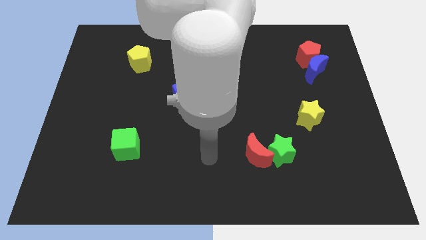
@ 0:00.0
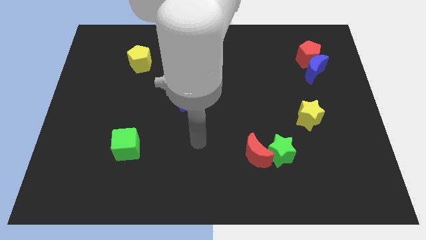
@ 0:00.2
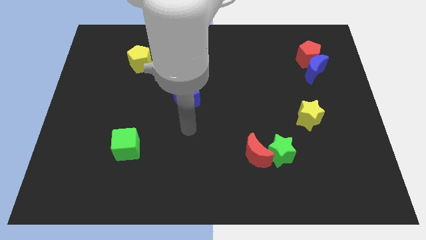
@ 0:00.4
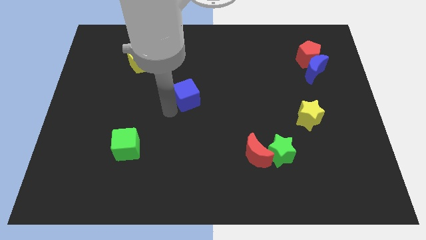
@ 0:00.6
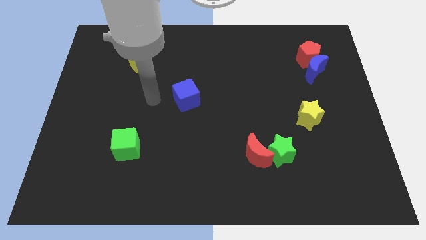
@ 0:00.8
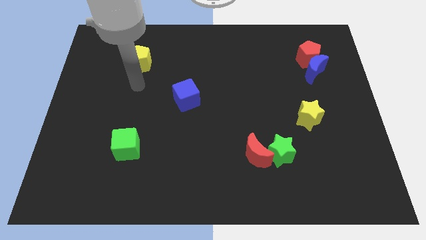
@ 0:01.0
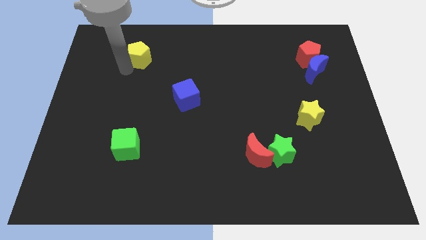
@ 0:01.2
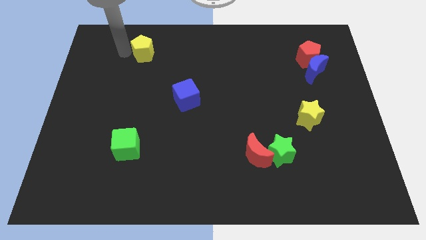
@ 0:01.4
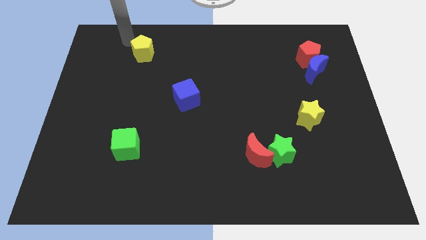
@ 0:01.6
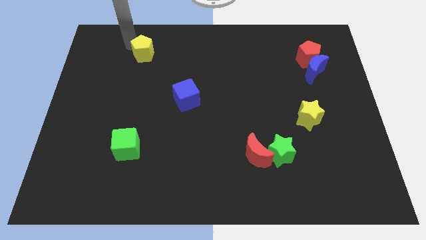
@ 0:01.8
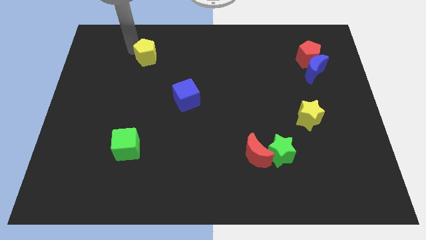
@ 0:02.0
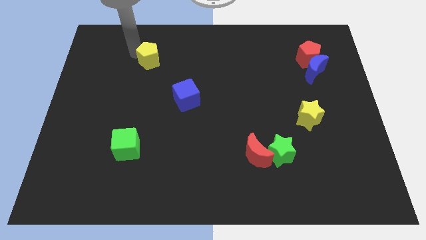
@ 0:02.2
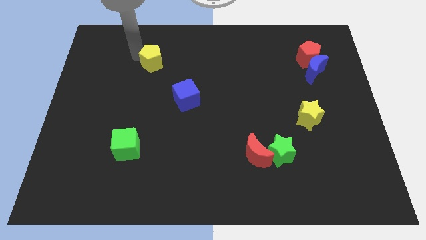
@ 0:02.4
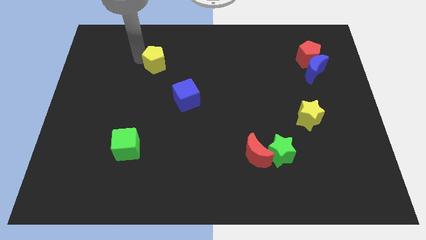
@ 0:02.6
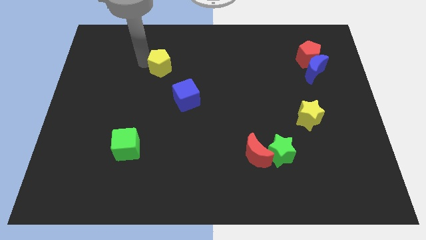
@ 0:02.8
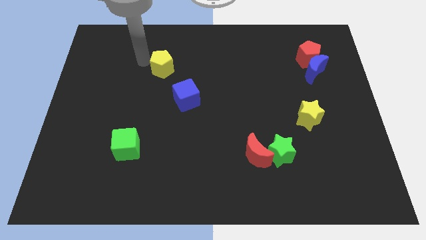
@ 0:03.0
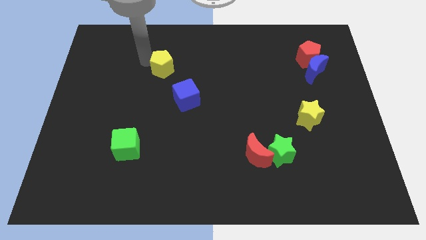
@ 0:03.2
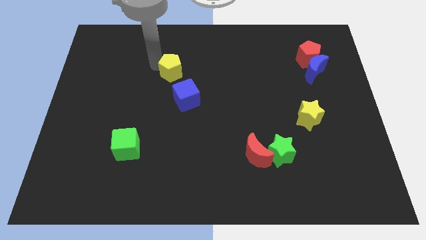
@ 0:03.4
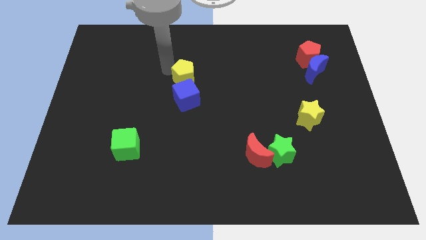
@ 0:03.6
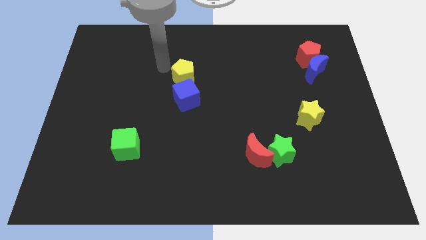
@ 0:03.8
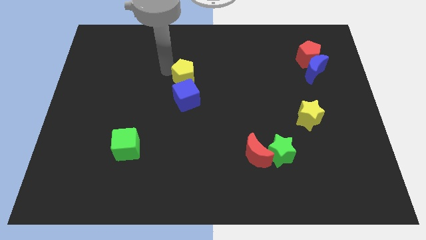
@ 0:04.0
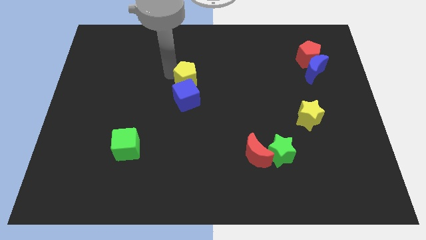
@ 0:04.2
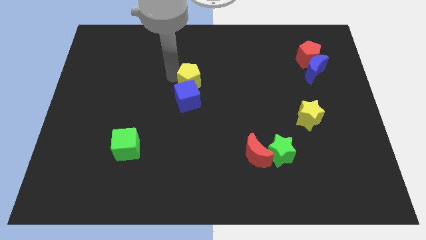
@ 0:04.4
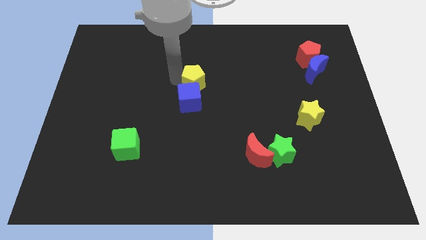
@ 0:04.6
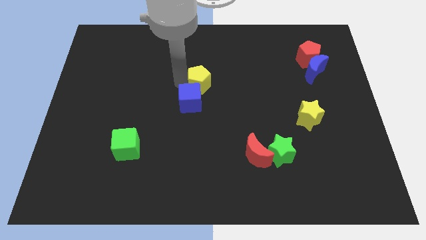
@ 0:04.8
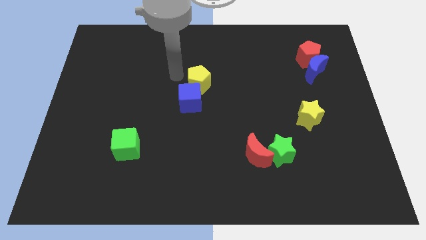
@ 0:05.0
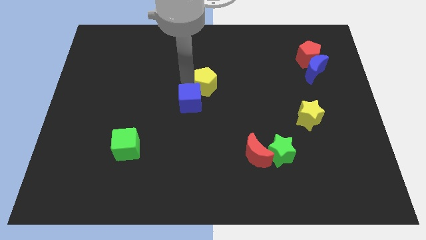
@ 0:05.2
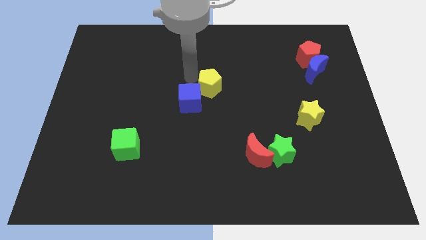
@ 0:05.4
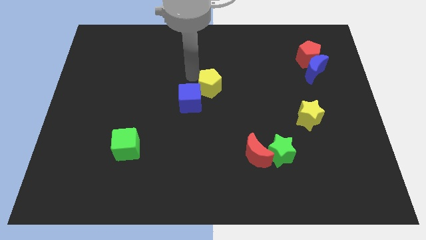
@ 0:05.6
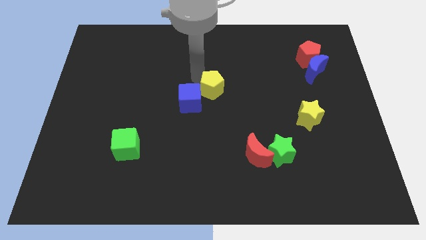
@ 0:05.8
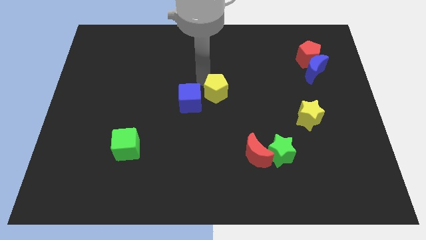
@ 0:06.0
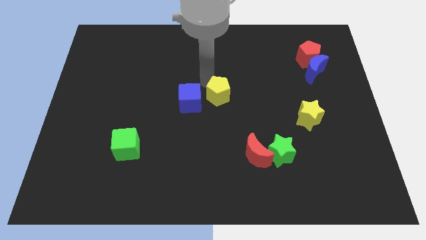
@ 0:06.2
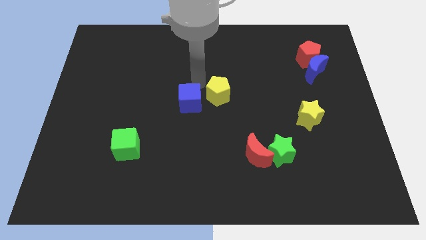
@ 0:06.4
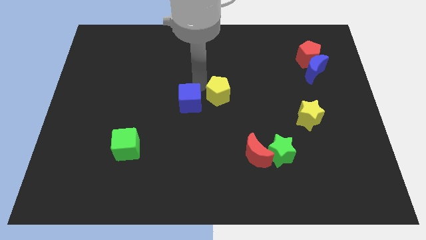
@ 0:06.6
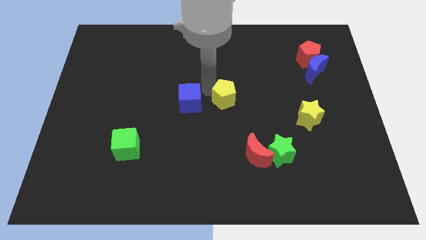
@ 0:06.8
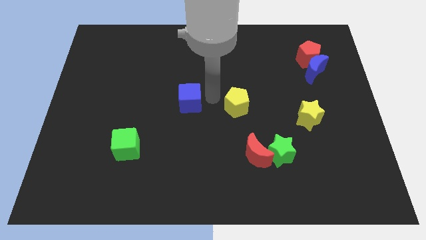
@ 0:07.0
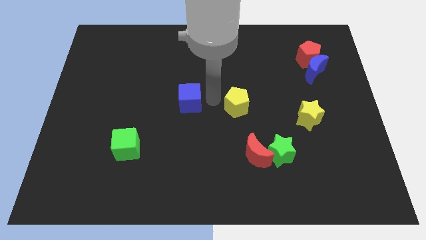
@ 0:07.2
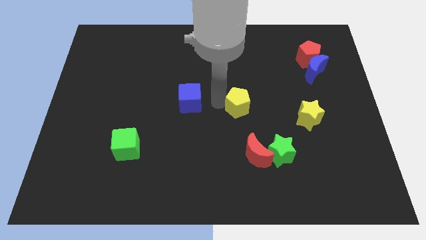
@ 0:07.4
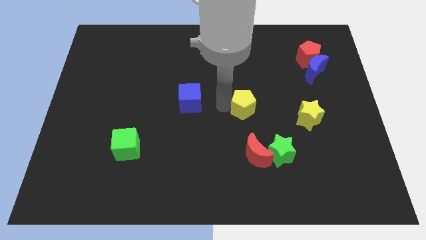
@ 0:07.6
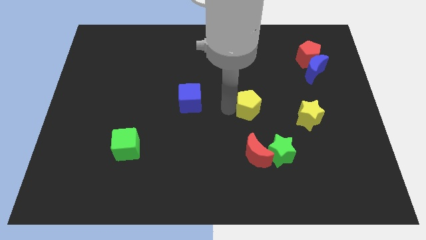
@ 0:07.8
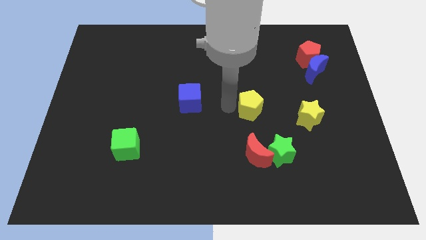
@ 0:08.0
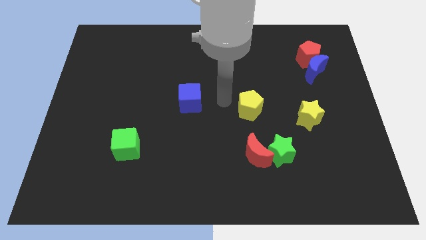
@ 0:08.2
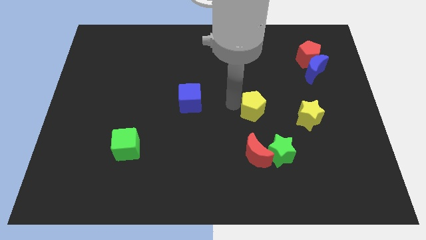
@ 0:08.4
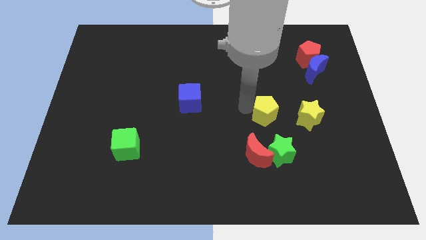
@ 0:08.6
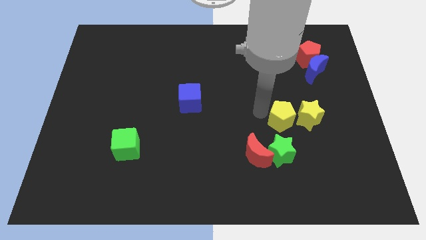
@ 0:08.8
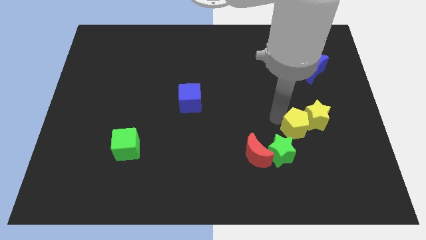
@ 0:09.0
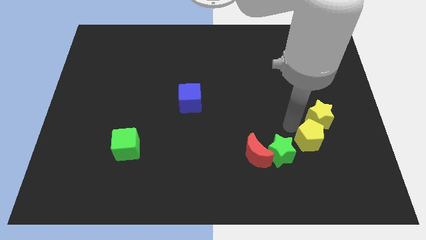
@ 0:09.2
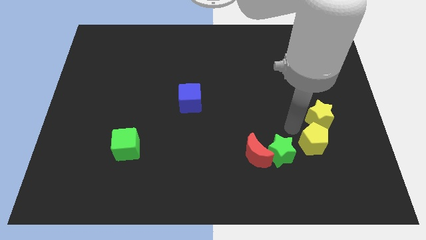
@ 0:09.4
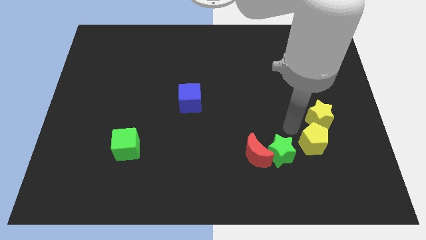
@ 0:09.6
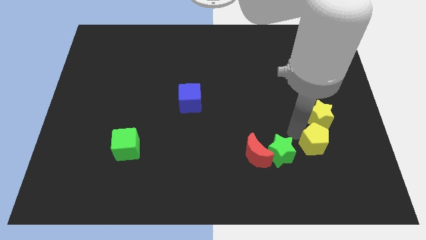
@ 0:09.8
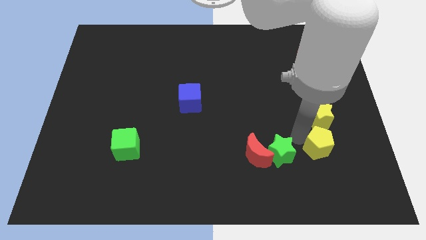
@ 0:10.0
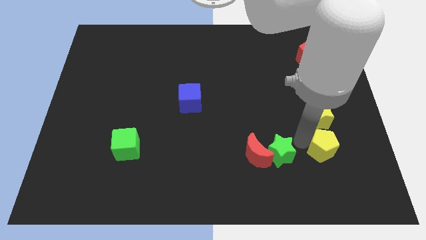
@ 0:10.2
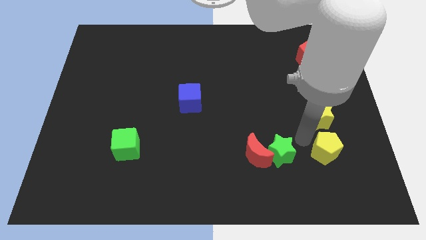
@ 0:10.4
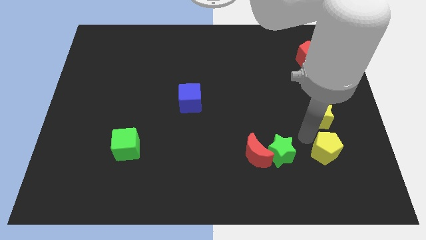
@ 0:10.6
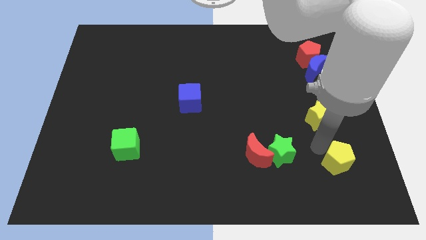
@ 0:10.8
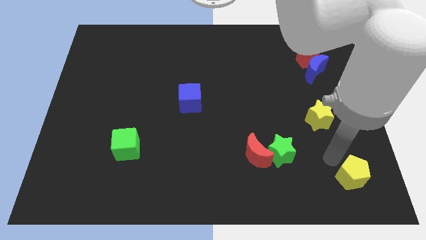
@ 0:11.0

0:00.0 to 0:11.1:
put the yellow pentagon to the bottom right

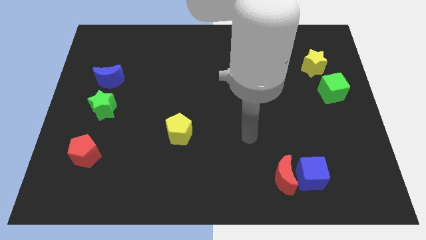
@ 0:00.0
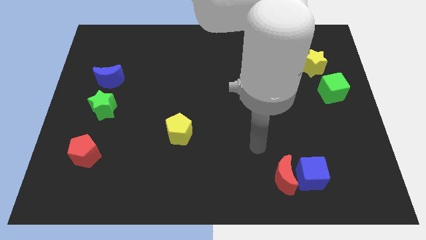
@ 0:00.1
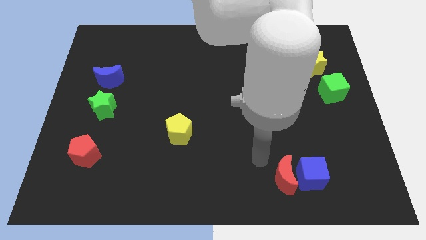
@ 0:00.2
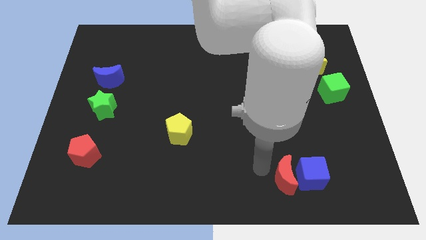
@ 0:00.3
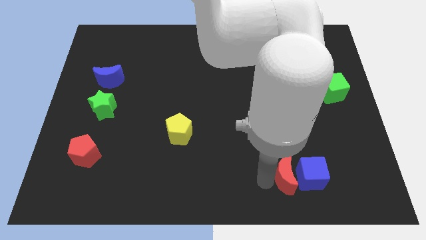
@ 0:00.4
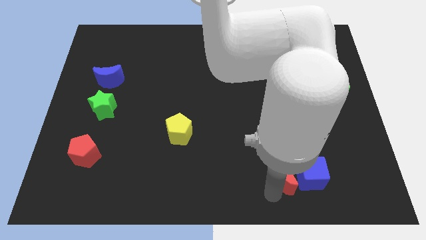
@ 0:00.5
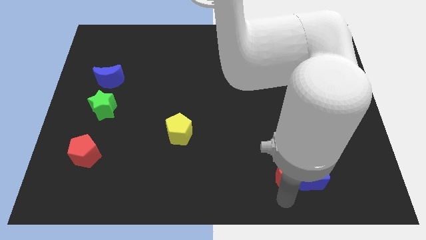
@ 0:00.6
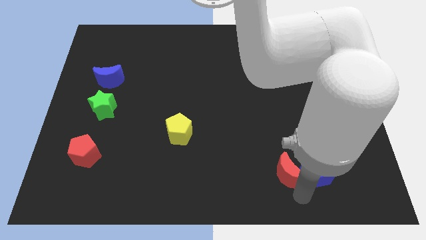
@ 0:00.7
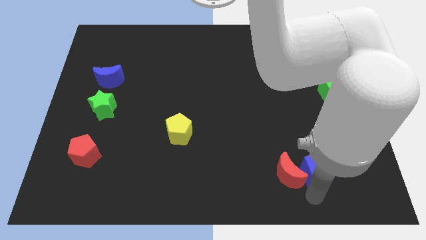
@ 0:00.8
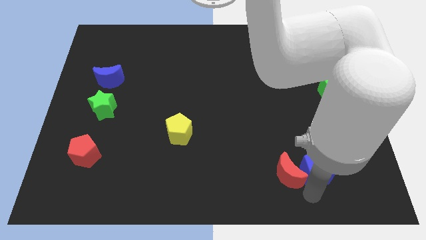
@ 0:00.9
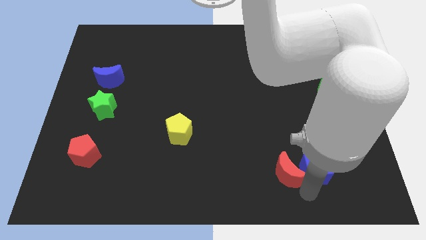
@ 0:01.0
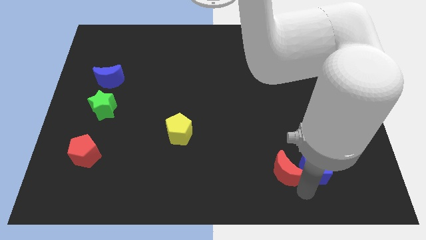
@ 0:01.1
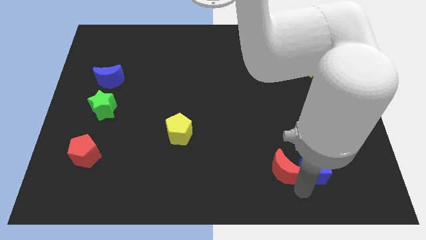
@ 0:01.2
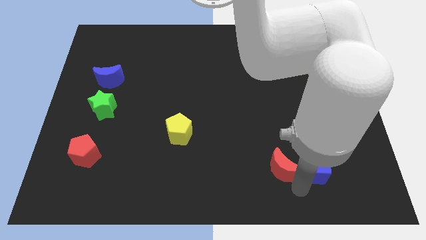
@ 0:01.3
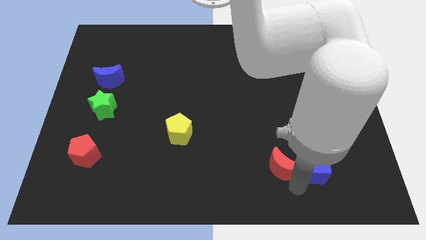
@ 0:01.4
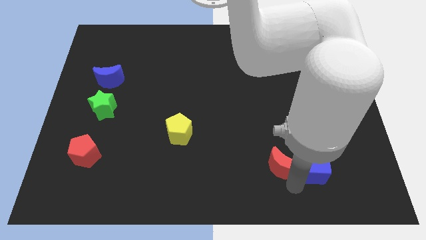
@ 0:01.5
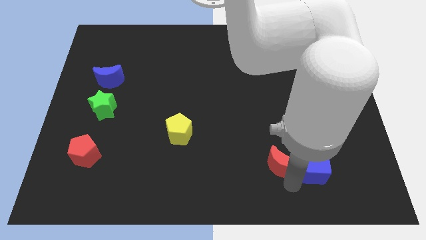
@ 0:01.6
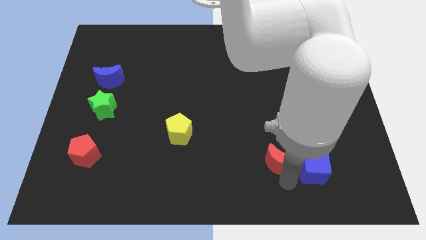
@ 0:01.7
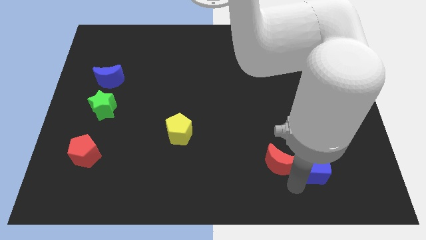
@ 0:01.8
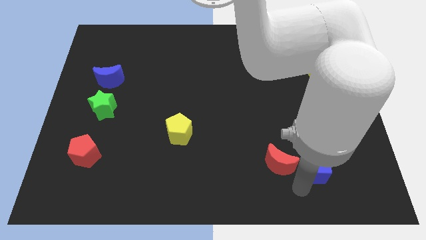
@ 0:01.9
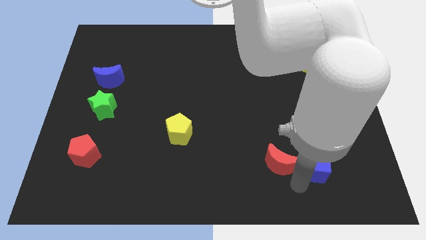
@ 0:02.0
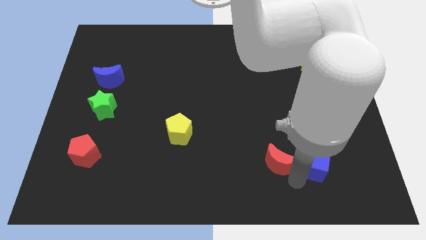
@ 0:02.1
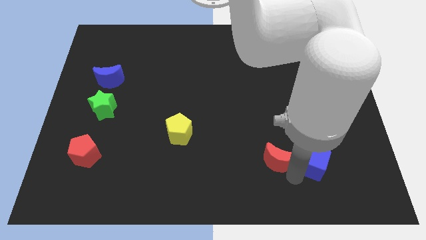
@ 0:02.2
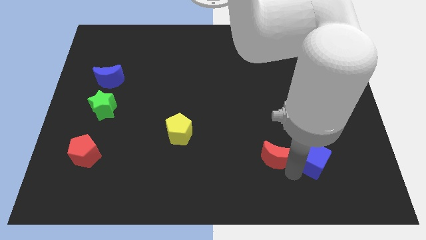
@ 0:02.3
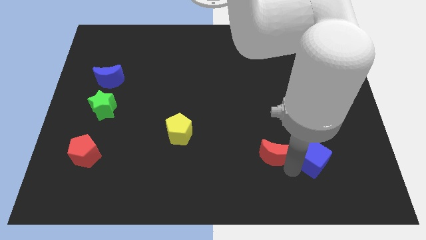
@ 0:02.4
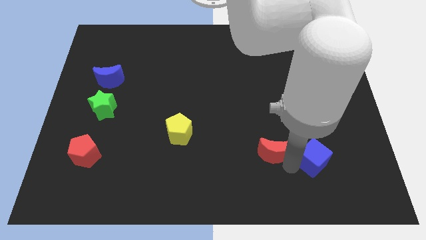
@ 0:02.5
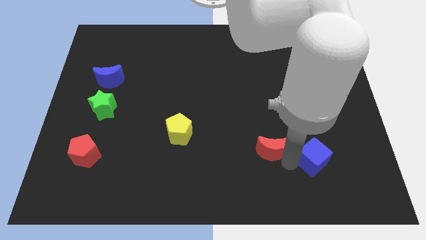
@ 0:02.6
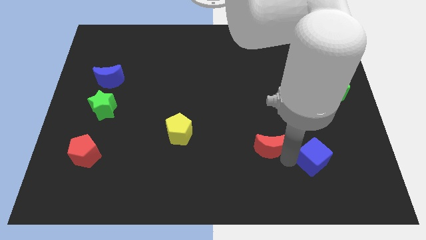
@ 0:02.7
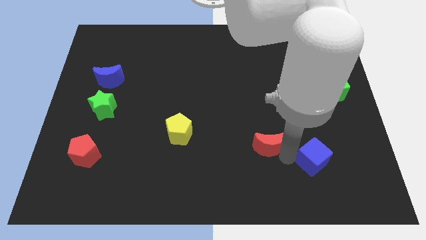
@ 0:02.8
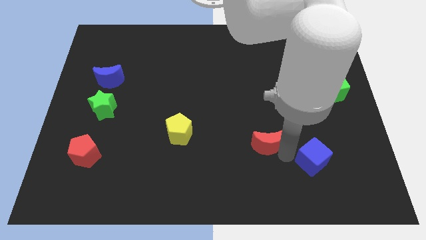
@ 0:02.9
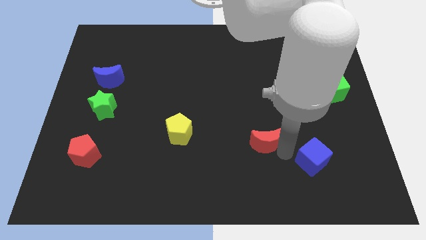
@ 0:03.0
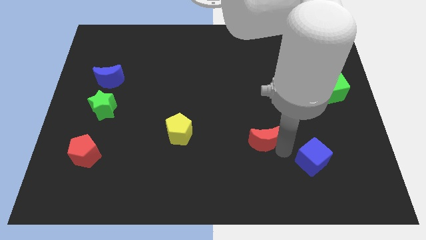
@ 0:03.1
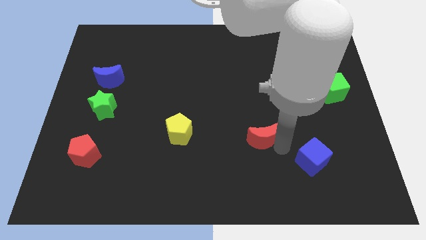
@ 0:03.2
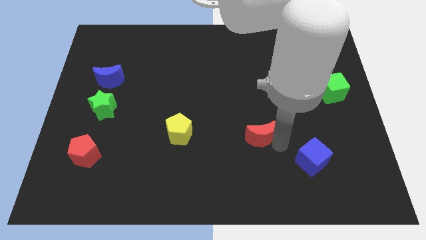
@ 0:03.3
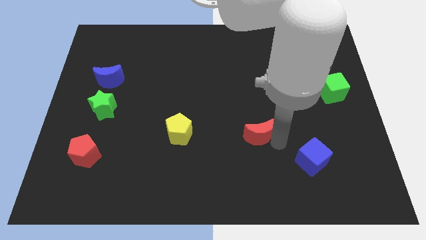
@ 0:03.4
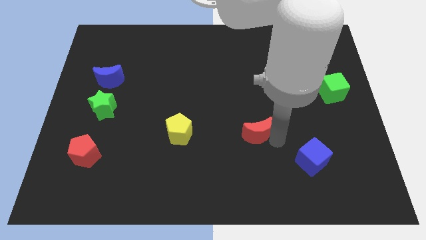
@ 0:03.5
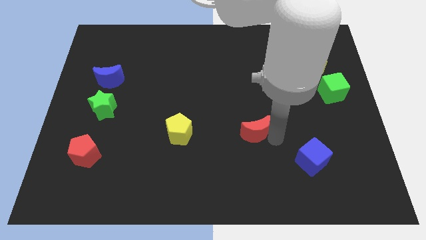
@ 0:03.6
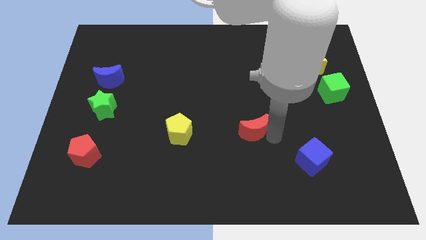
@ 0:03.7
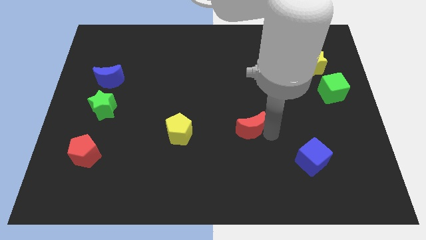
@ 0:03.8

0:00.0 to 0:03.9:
put the red moon to the center
